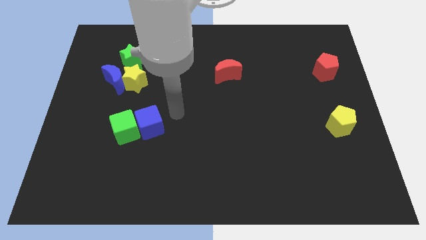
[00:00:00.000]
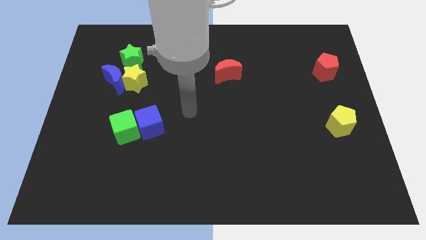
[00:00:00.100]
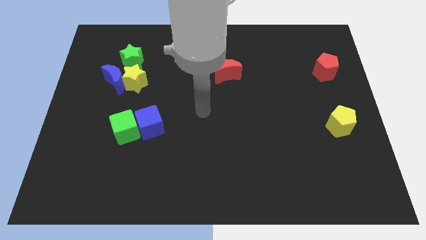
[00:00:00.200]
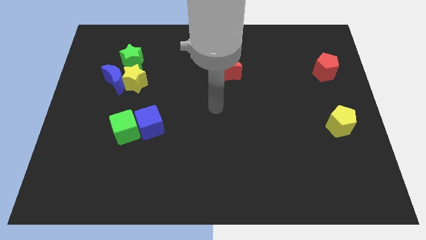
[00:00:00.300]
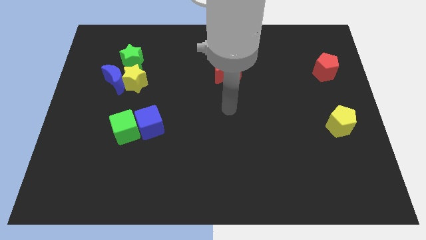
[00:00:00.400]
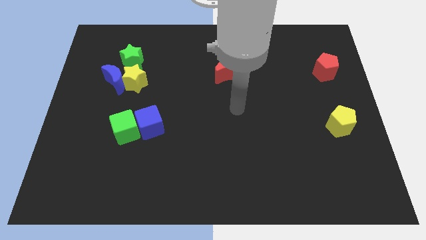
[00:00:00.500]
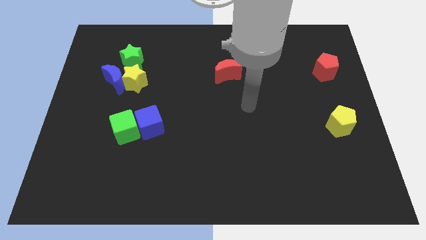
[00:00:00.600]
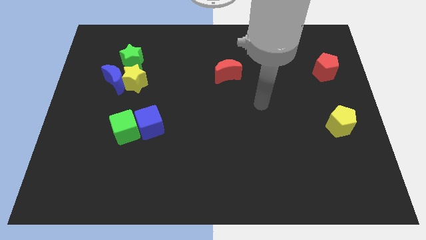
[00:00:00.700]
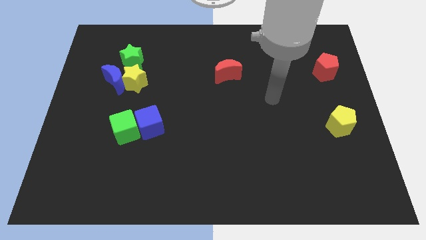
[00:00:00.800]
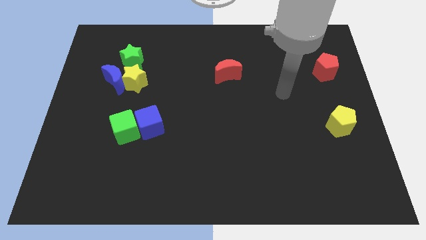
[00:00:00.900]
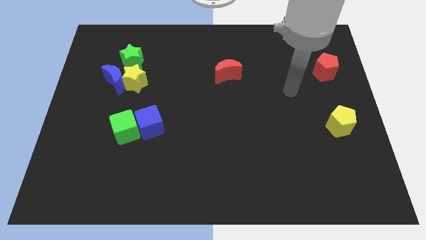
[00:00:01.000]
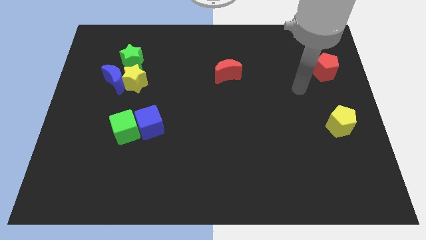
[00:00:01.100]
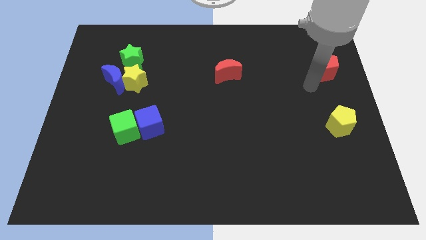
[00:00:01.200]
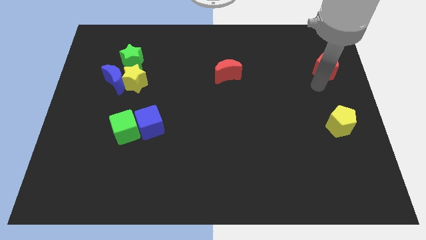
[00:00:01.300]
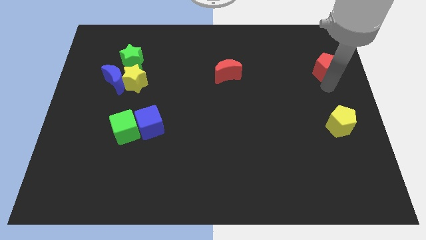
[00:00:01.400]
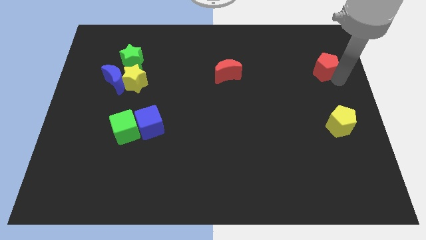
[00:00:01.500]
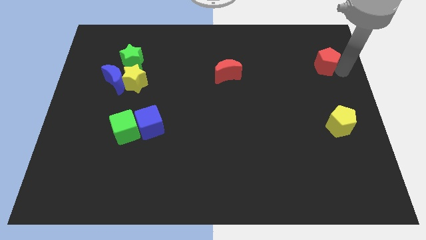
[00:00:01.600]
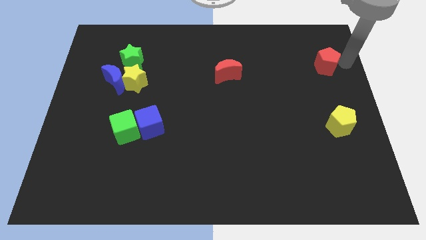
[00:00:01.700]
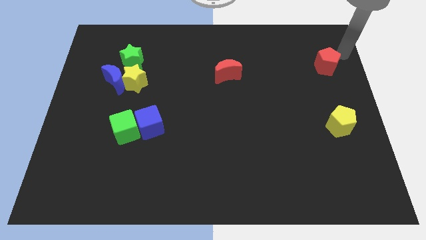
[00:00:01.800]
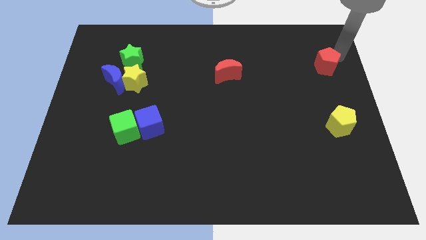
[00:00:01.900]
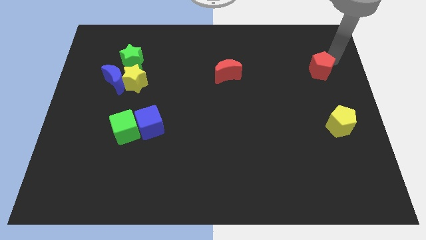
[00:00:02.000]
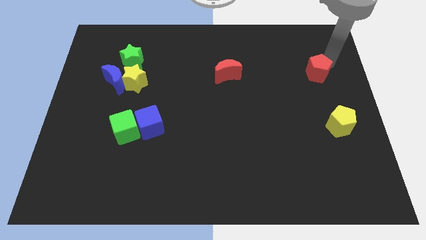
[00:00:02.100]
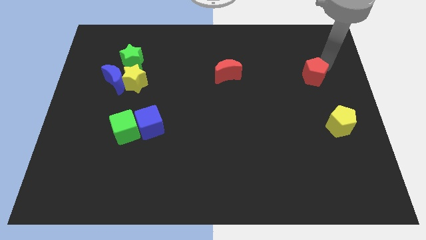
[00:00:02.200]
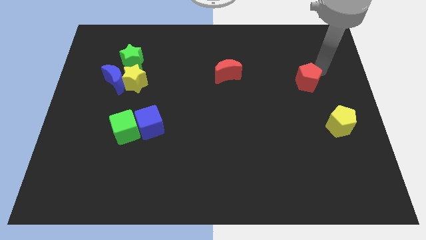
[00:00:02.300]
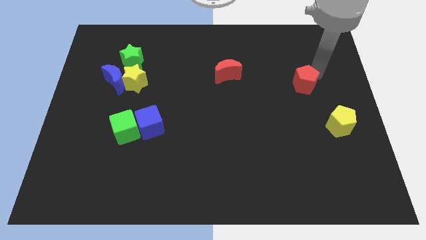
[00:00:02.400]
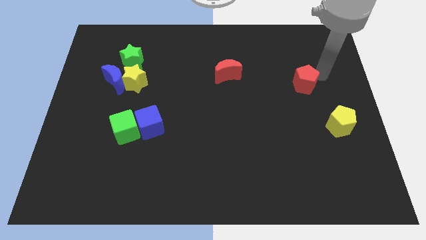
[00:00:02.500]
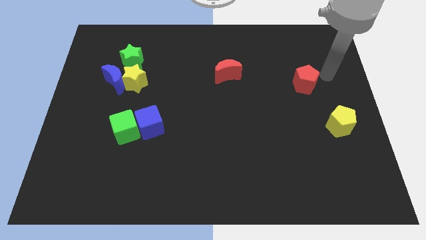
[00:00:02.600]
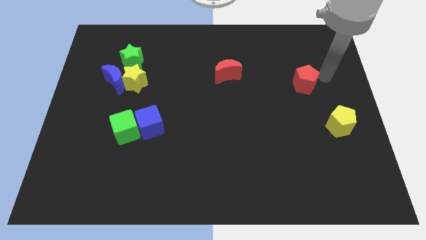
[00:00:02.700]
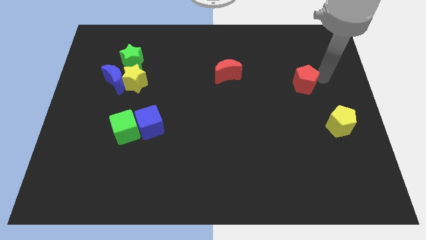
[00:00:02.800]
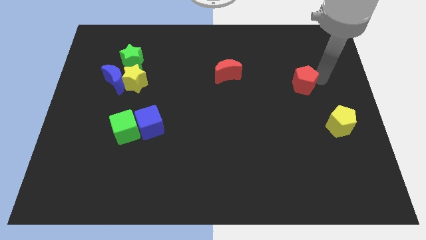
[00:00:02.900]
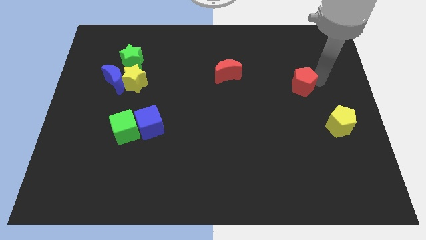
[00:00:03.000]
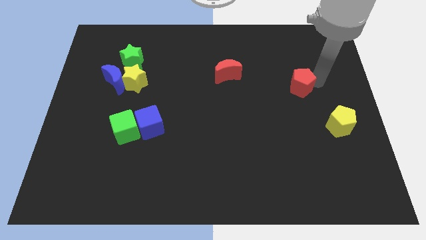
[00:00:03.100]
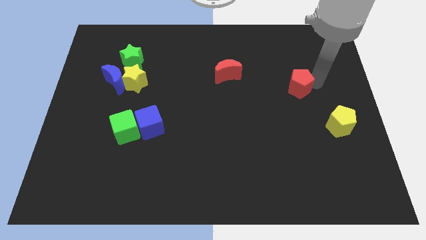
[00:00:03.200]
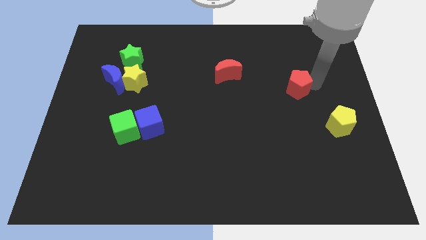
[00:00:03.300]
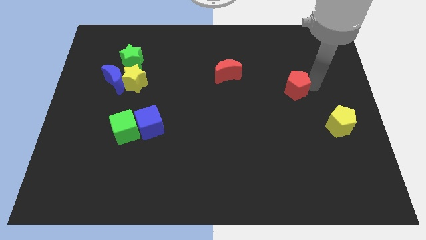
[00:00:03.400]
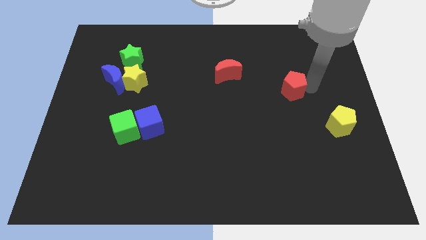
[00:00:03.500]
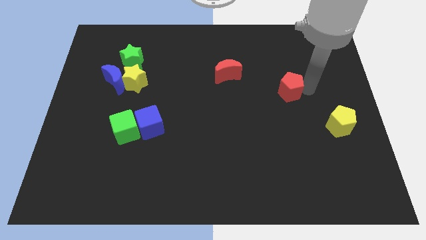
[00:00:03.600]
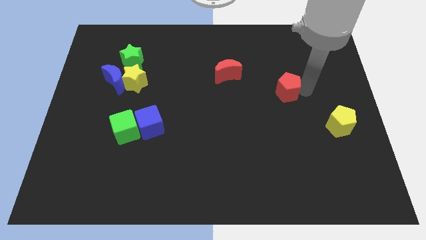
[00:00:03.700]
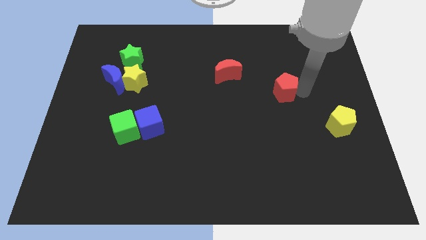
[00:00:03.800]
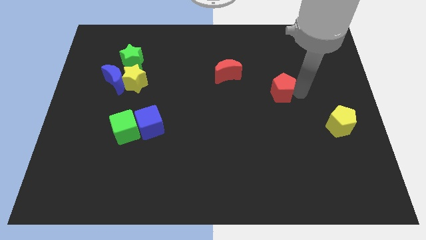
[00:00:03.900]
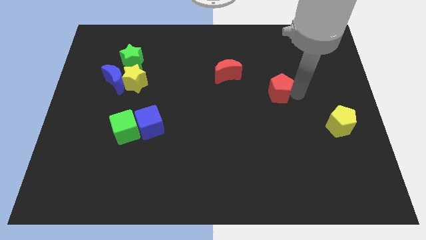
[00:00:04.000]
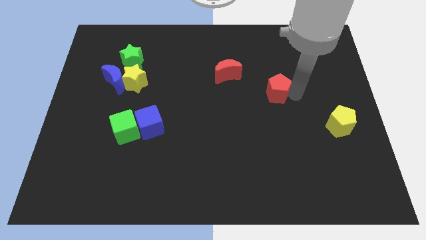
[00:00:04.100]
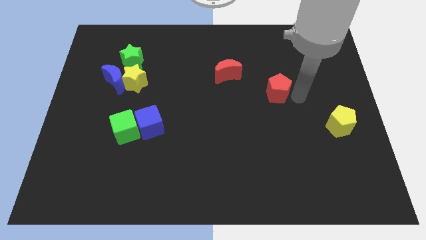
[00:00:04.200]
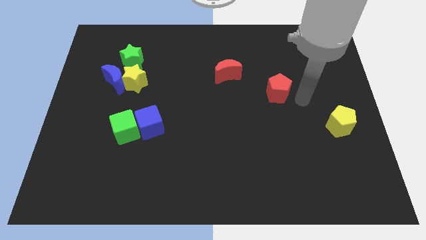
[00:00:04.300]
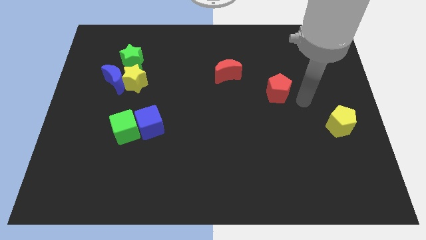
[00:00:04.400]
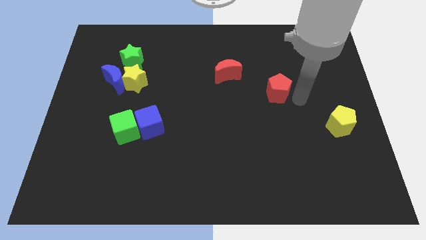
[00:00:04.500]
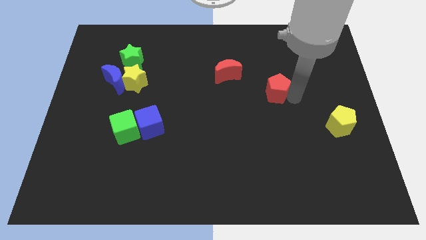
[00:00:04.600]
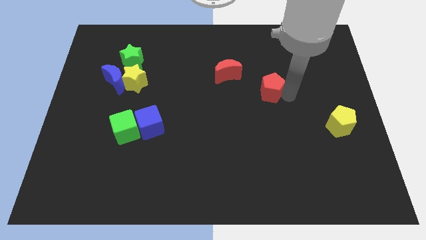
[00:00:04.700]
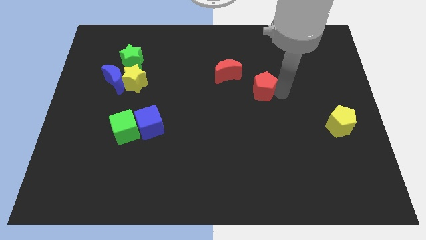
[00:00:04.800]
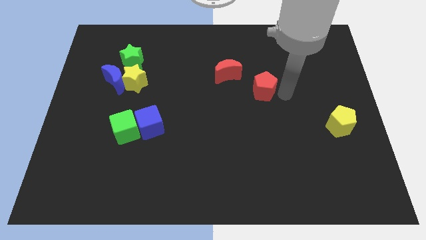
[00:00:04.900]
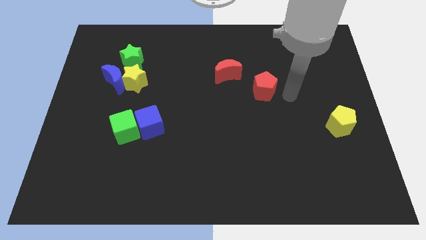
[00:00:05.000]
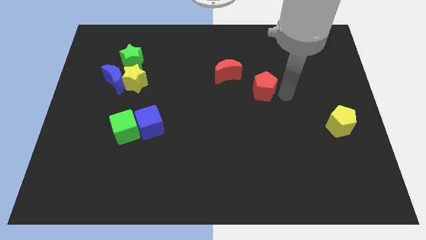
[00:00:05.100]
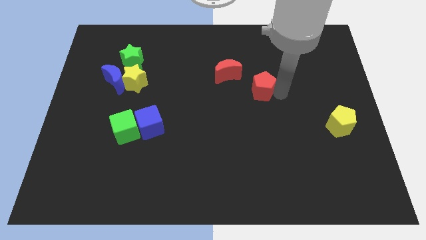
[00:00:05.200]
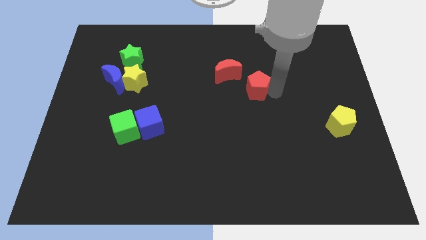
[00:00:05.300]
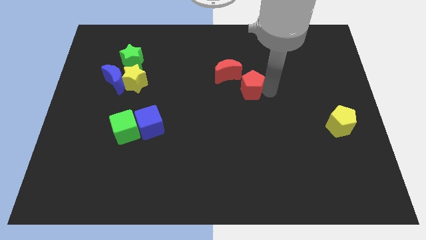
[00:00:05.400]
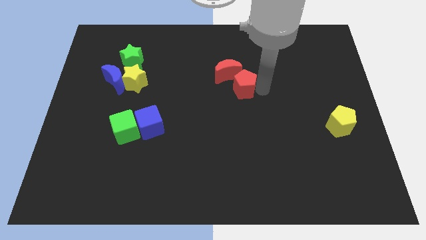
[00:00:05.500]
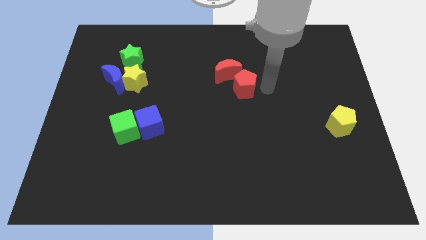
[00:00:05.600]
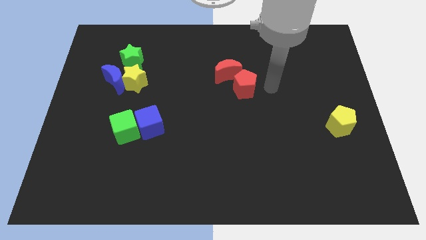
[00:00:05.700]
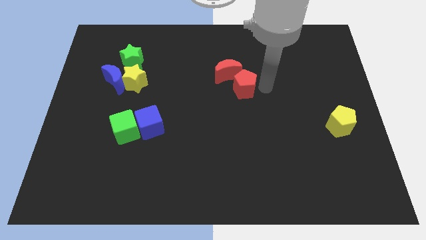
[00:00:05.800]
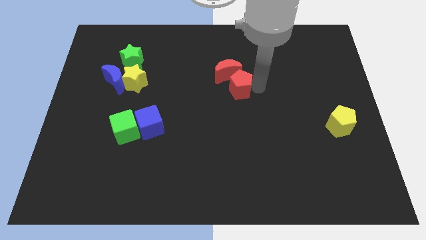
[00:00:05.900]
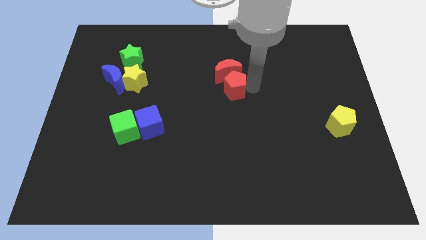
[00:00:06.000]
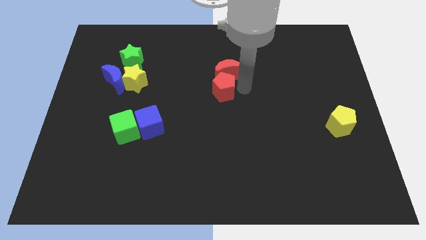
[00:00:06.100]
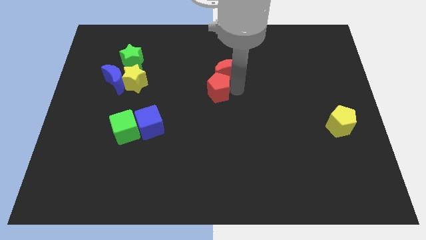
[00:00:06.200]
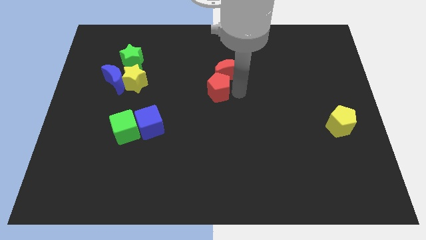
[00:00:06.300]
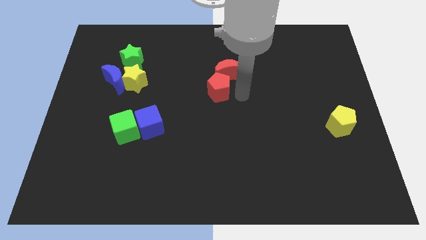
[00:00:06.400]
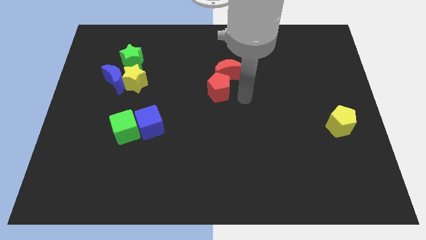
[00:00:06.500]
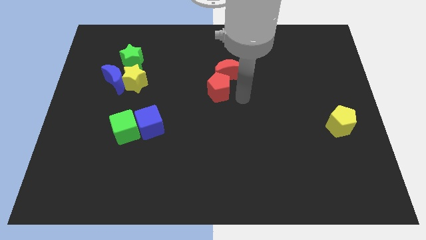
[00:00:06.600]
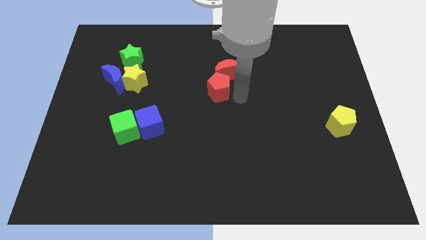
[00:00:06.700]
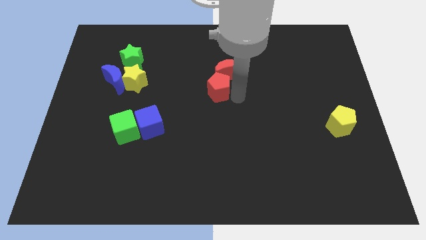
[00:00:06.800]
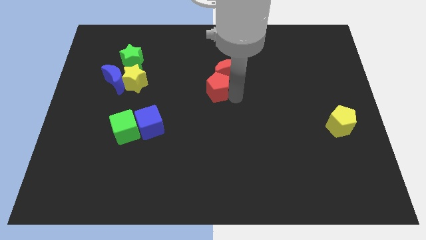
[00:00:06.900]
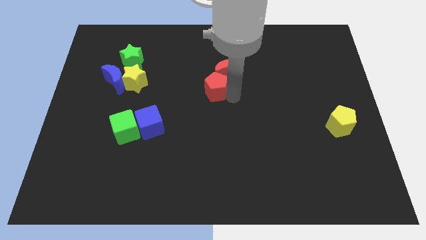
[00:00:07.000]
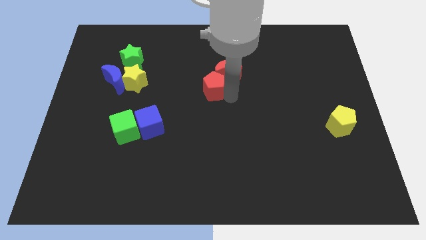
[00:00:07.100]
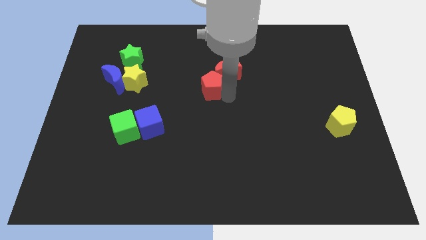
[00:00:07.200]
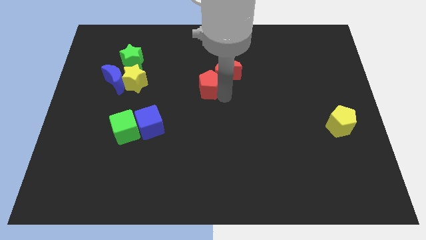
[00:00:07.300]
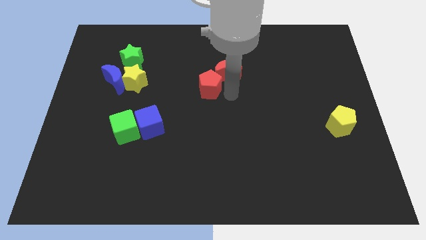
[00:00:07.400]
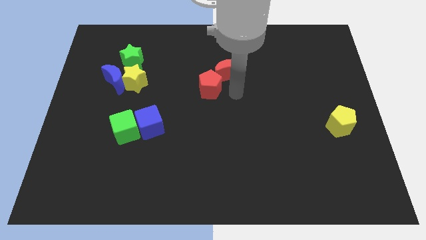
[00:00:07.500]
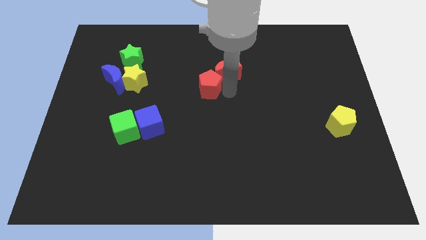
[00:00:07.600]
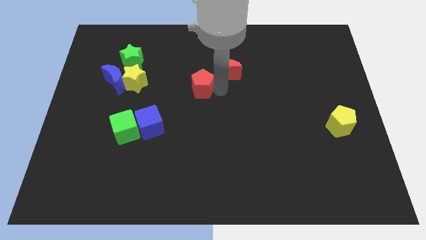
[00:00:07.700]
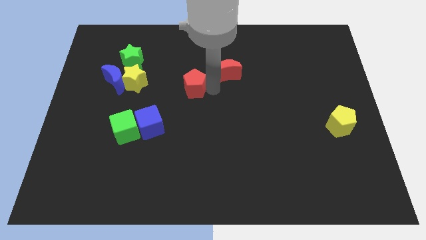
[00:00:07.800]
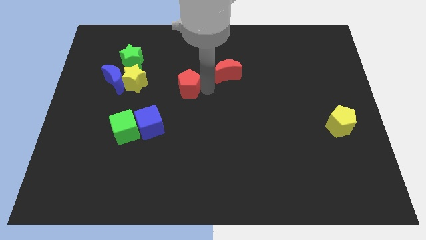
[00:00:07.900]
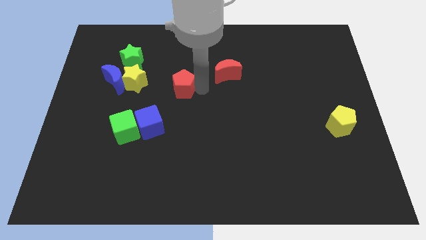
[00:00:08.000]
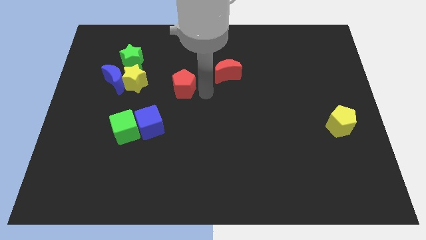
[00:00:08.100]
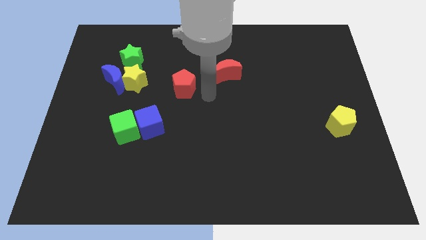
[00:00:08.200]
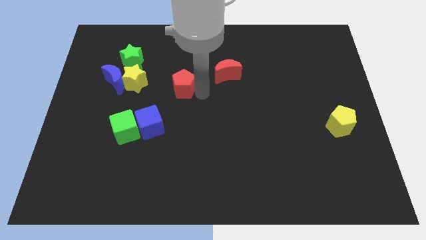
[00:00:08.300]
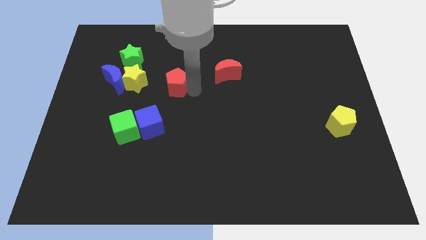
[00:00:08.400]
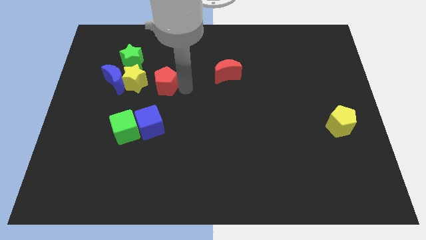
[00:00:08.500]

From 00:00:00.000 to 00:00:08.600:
move the red pentagon to the bottom right side of the green star
